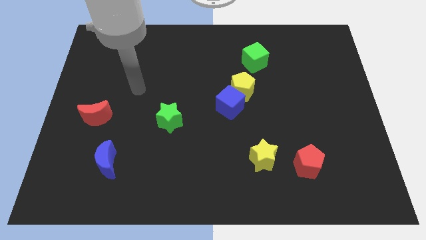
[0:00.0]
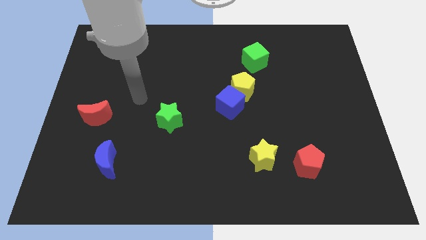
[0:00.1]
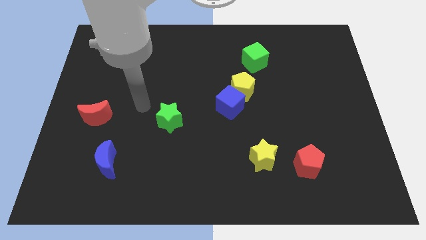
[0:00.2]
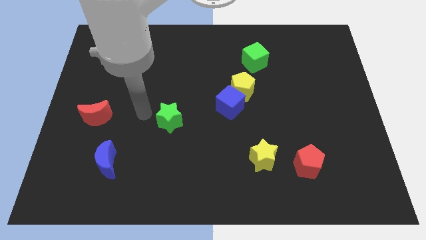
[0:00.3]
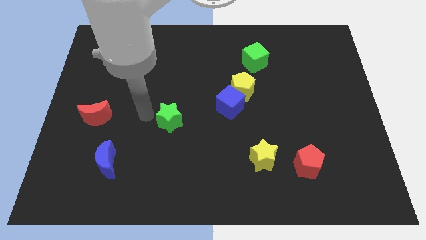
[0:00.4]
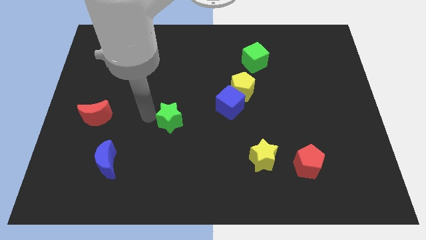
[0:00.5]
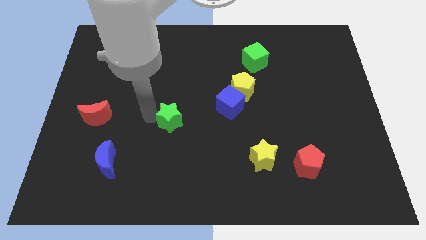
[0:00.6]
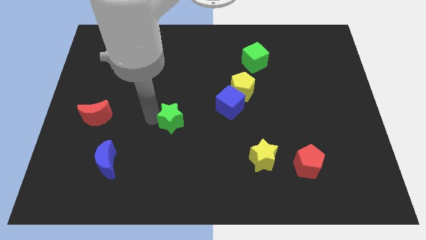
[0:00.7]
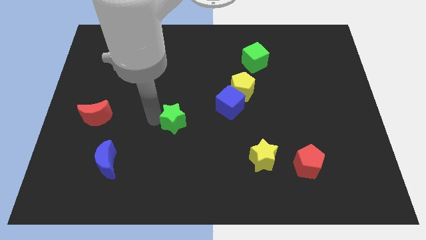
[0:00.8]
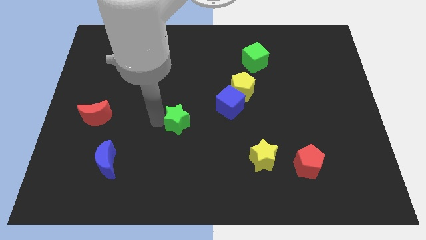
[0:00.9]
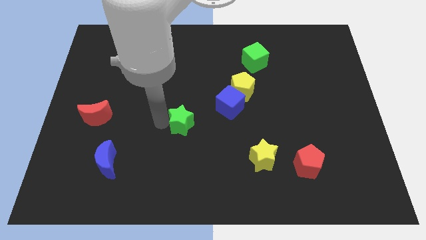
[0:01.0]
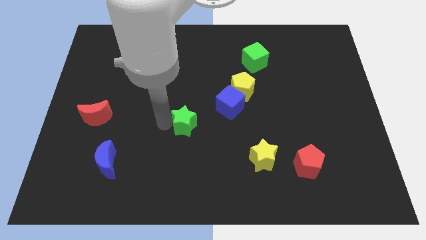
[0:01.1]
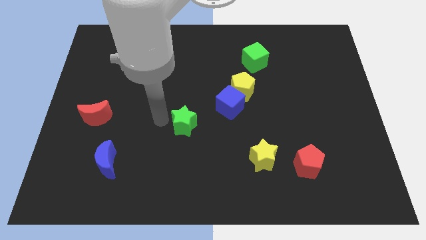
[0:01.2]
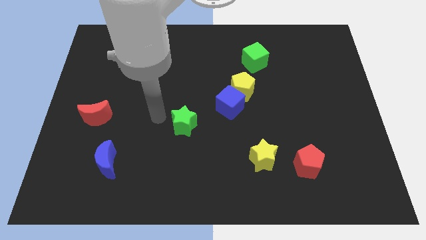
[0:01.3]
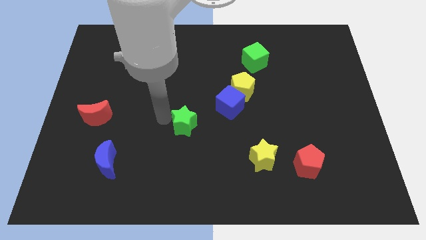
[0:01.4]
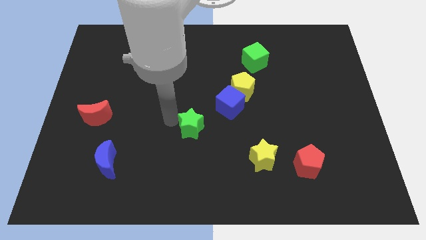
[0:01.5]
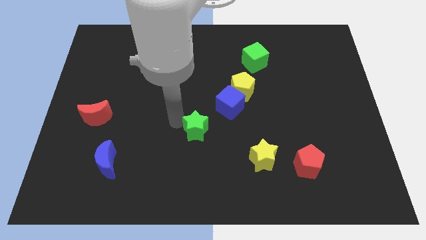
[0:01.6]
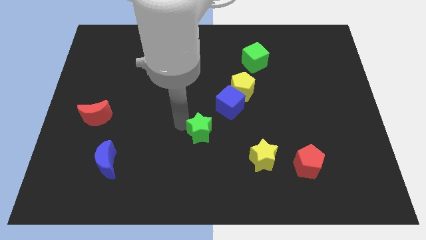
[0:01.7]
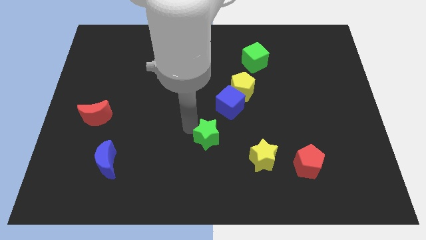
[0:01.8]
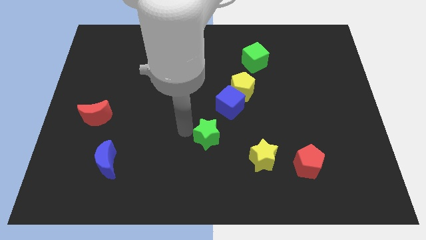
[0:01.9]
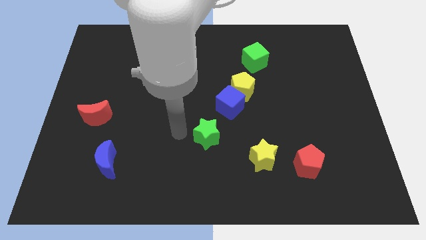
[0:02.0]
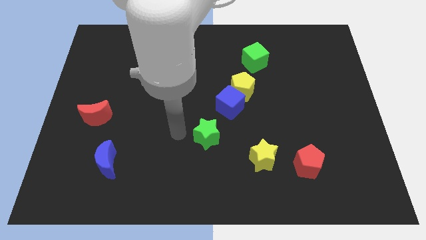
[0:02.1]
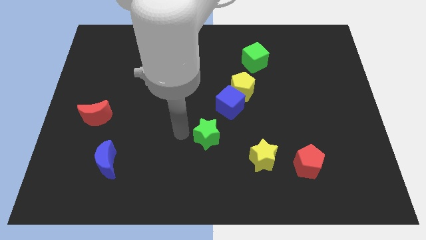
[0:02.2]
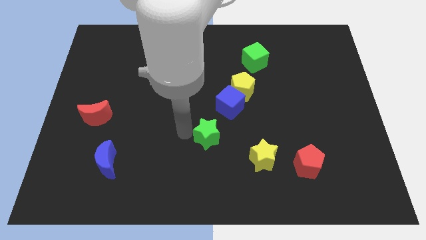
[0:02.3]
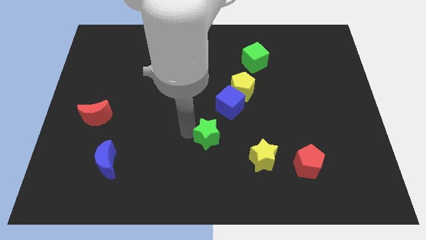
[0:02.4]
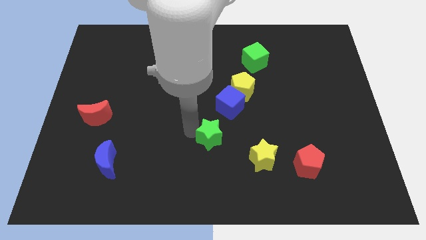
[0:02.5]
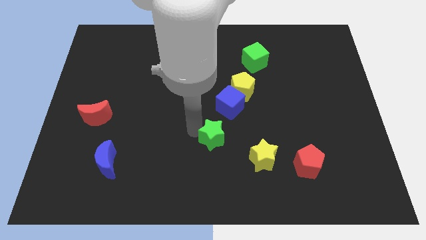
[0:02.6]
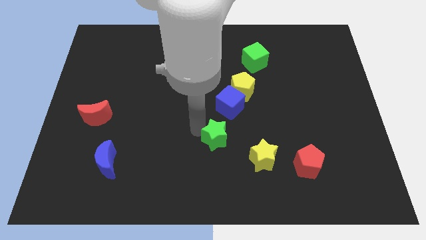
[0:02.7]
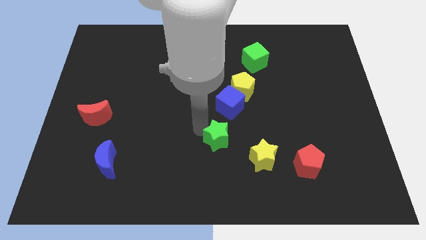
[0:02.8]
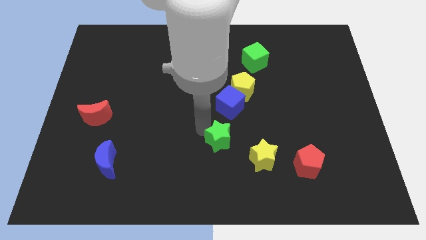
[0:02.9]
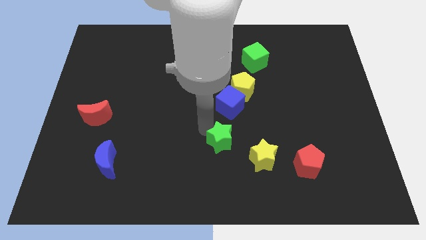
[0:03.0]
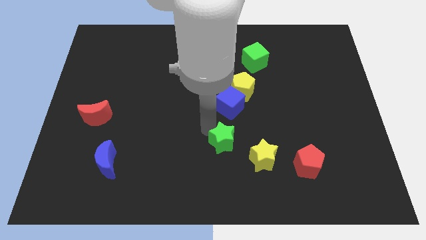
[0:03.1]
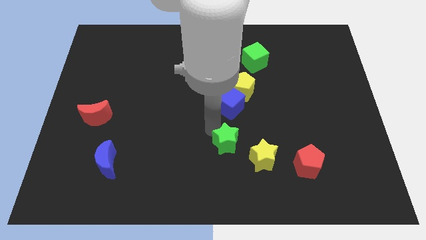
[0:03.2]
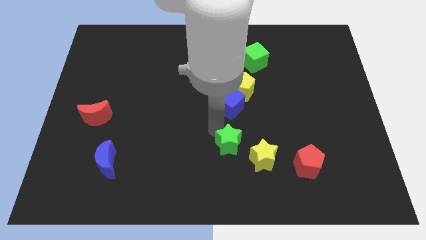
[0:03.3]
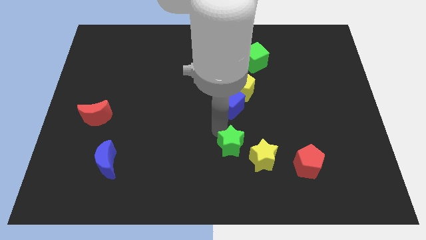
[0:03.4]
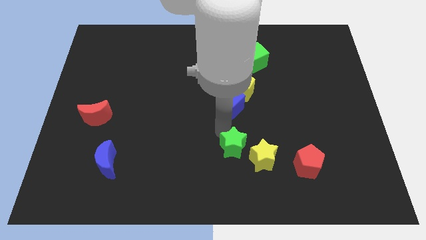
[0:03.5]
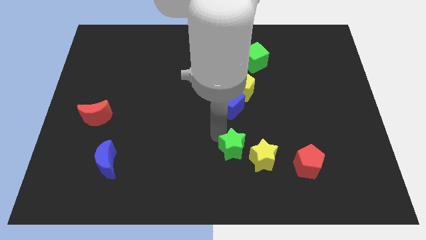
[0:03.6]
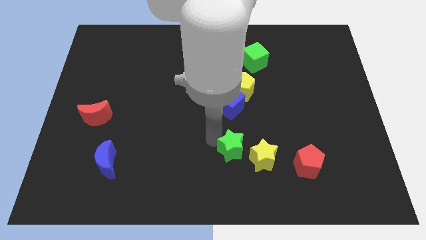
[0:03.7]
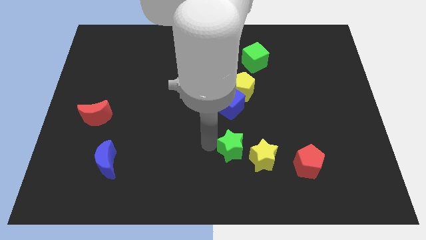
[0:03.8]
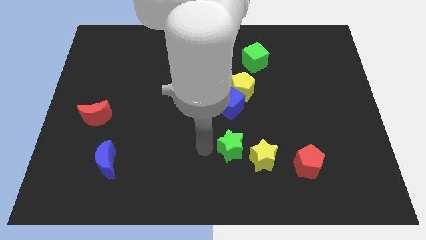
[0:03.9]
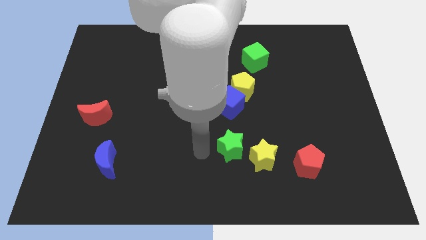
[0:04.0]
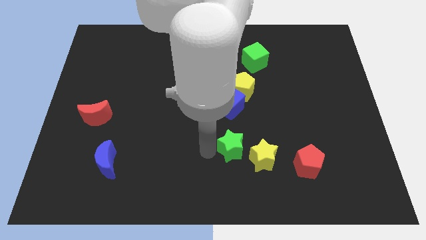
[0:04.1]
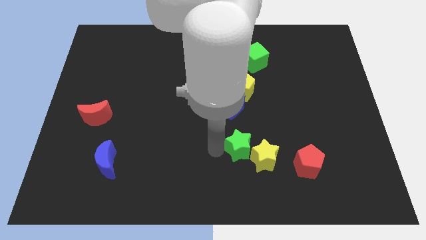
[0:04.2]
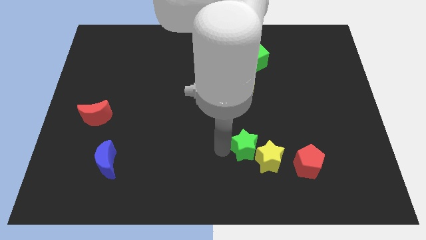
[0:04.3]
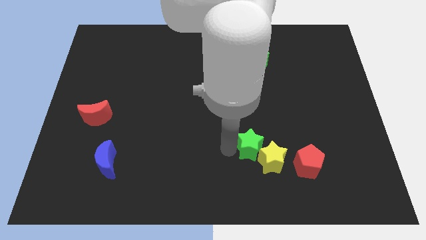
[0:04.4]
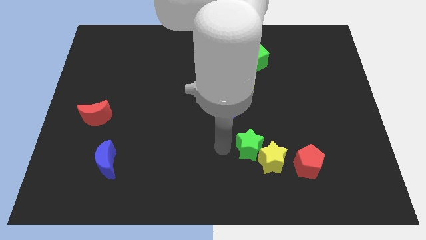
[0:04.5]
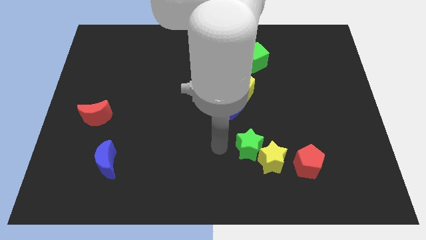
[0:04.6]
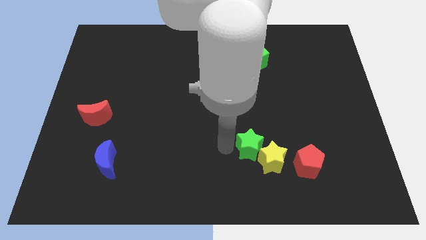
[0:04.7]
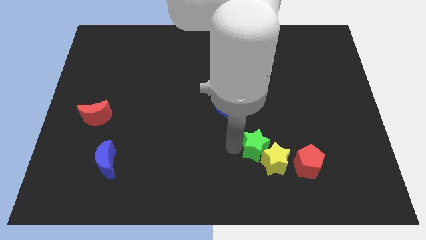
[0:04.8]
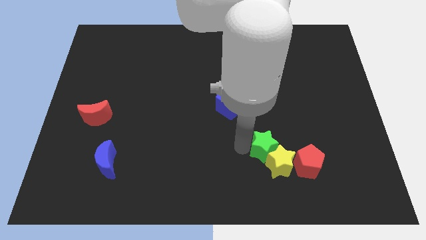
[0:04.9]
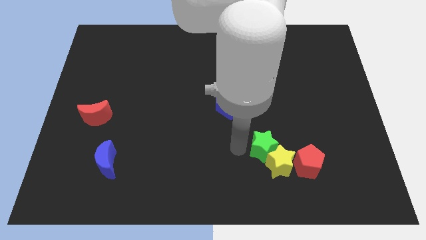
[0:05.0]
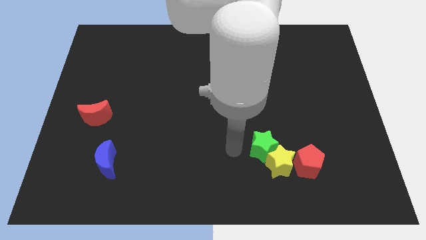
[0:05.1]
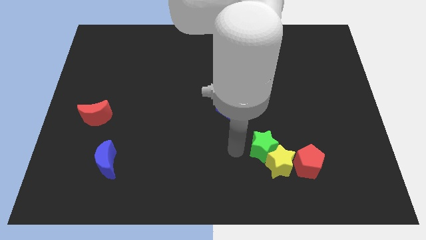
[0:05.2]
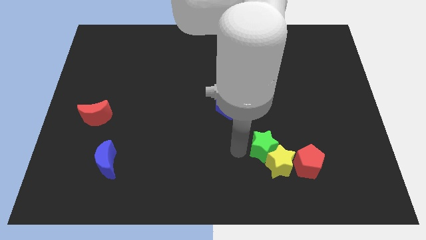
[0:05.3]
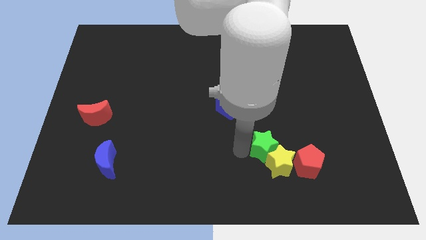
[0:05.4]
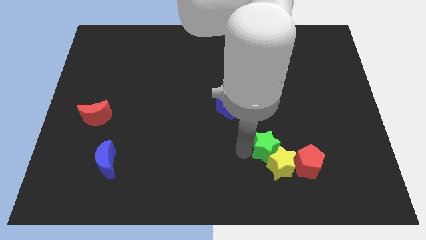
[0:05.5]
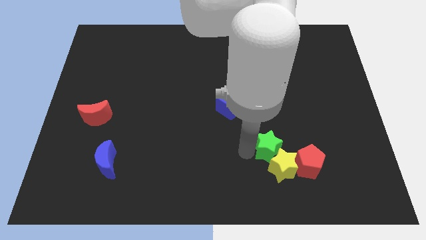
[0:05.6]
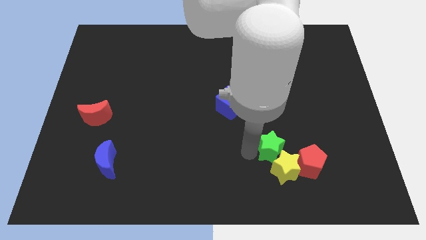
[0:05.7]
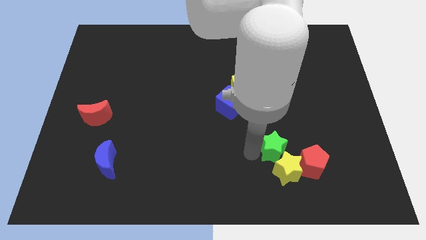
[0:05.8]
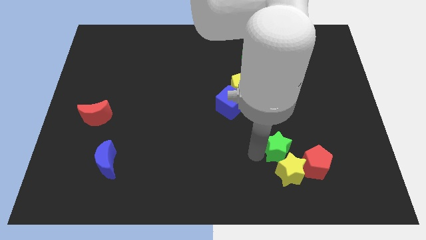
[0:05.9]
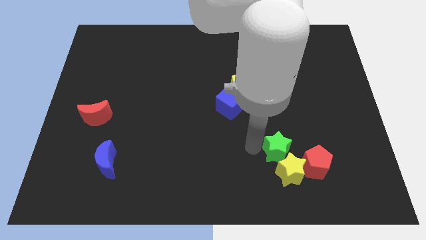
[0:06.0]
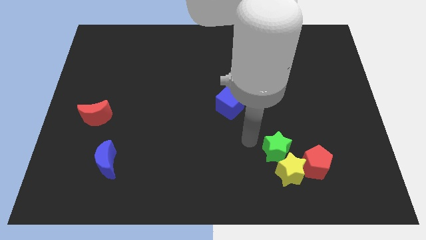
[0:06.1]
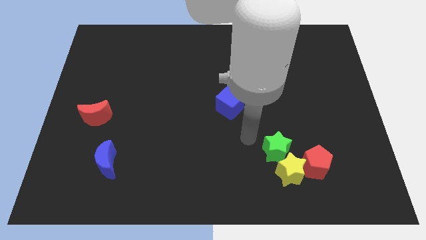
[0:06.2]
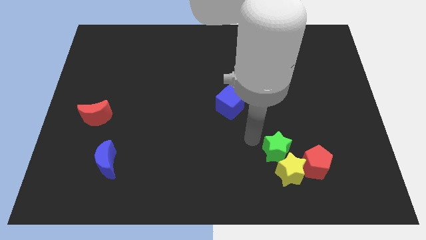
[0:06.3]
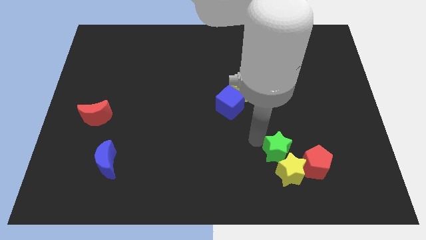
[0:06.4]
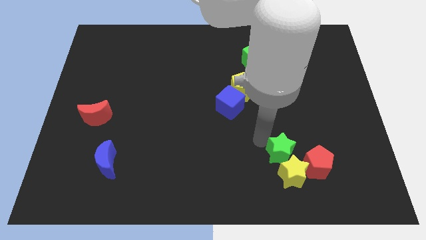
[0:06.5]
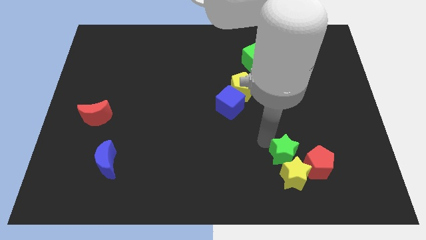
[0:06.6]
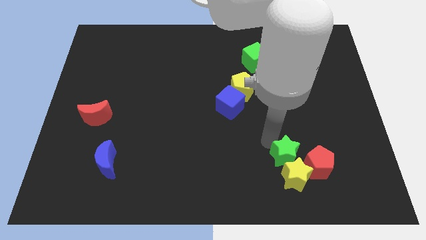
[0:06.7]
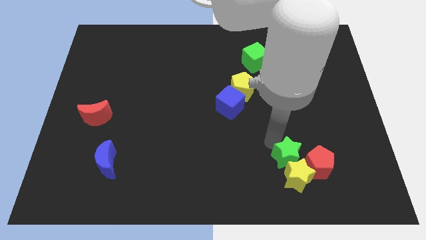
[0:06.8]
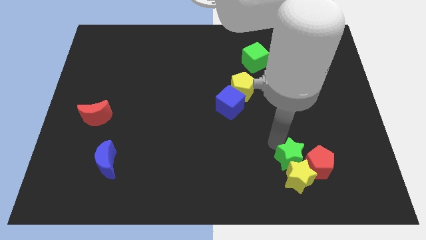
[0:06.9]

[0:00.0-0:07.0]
put the green star to the red pentagon
